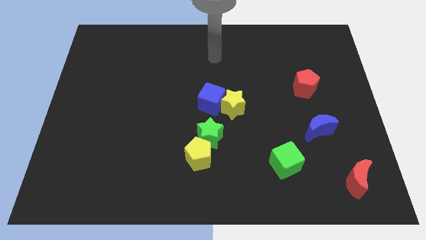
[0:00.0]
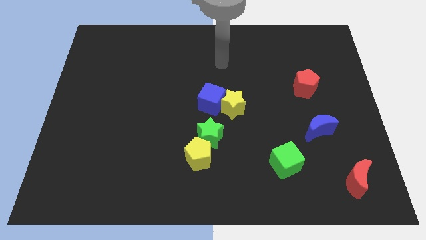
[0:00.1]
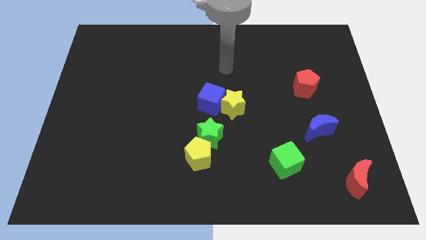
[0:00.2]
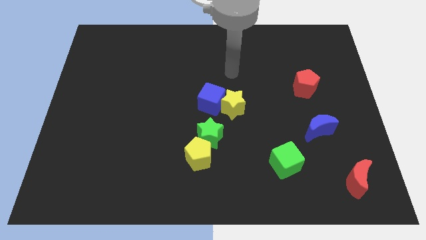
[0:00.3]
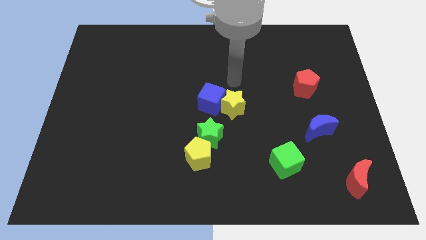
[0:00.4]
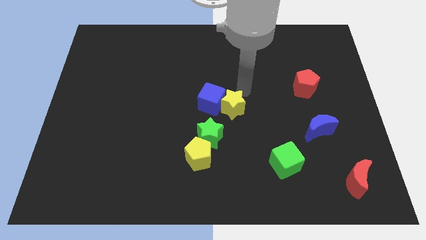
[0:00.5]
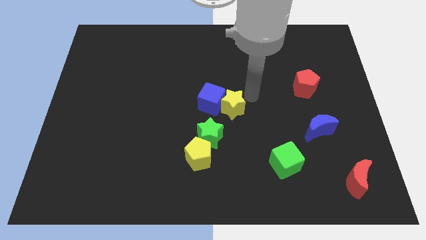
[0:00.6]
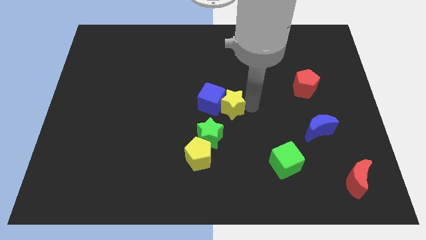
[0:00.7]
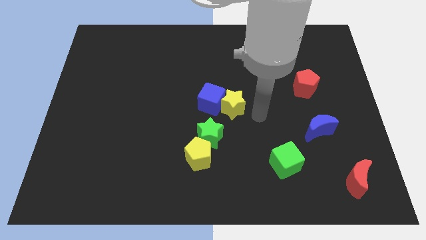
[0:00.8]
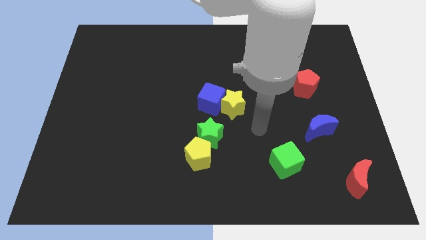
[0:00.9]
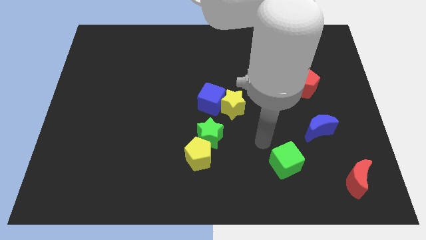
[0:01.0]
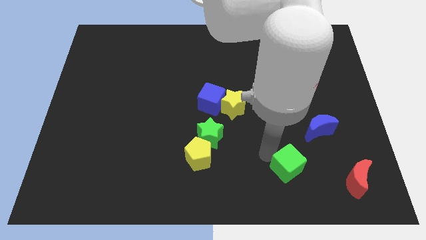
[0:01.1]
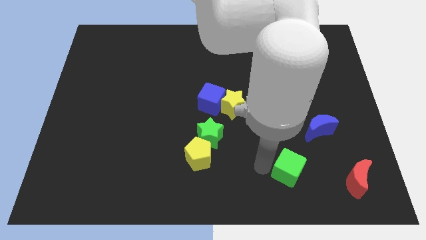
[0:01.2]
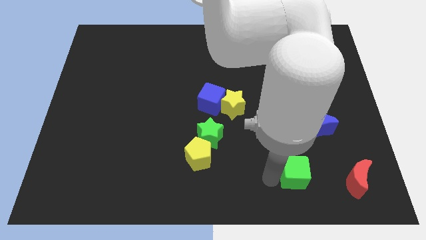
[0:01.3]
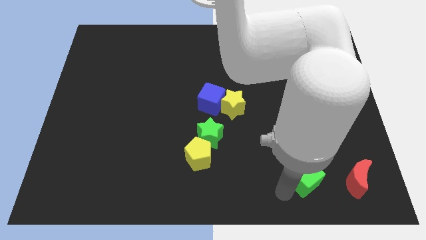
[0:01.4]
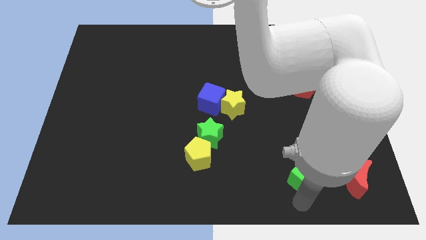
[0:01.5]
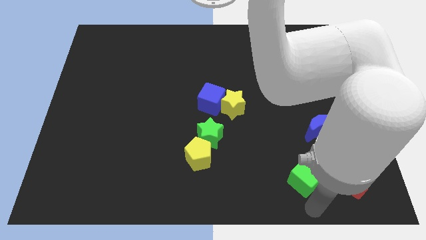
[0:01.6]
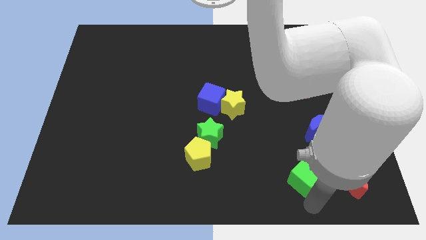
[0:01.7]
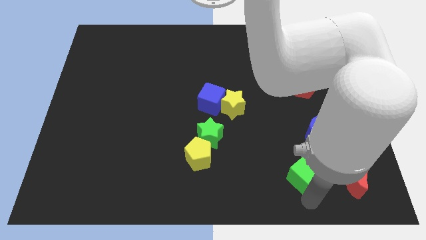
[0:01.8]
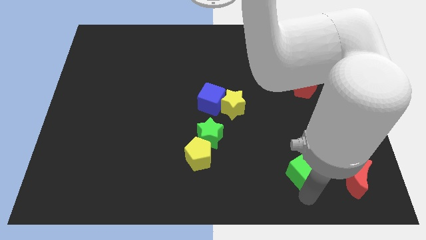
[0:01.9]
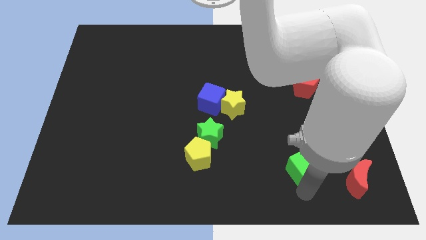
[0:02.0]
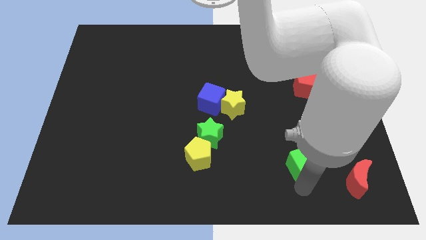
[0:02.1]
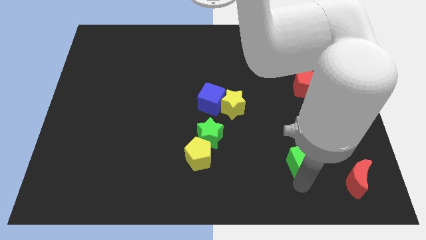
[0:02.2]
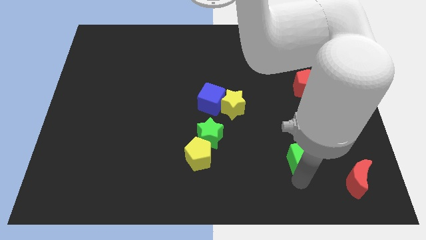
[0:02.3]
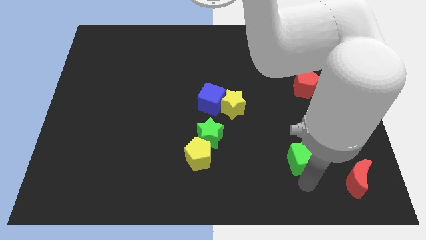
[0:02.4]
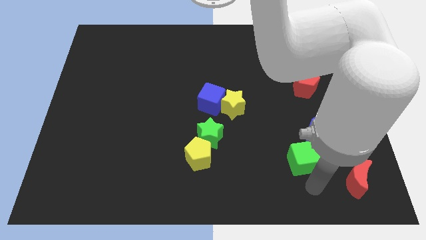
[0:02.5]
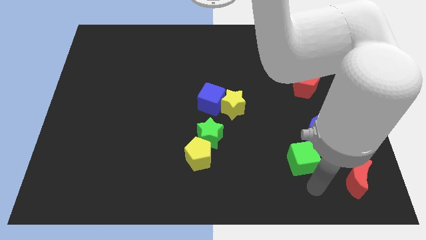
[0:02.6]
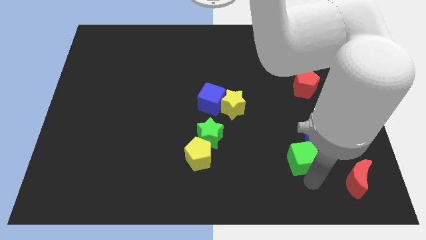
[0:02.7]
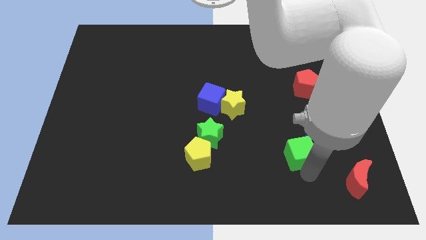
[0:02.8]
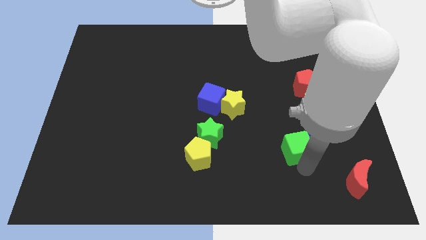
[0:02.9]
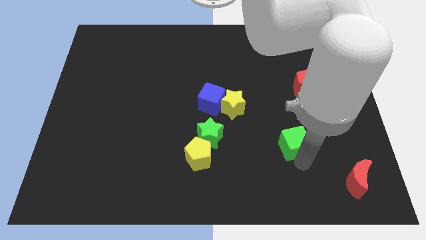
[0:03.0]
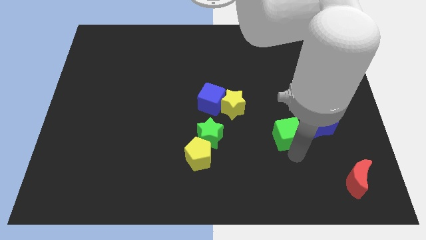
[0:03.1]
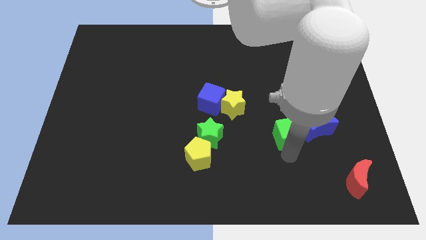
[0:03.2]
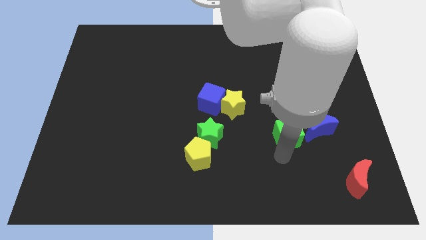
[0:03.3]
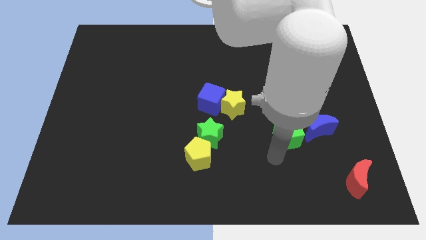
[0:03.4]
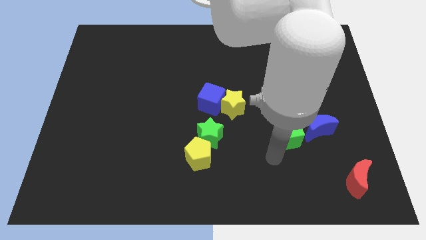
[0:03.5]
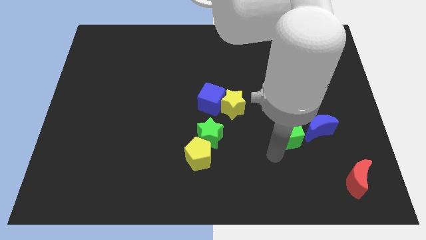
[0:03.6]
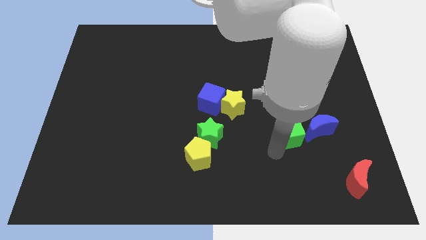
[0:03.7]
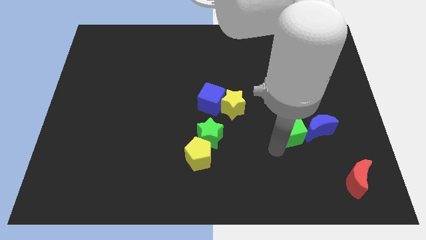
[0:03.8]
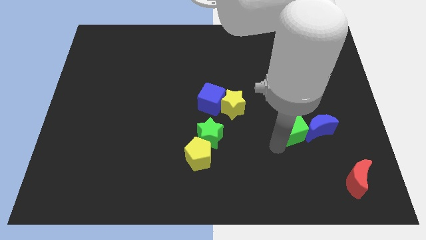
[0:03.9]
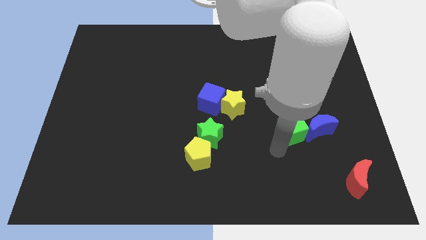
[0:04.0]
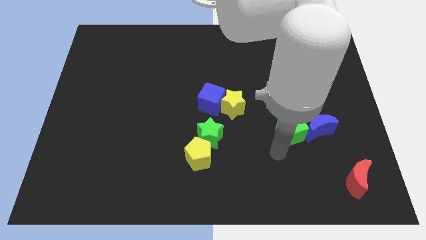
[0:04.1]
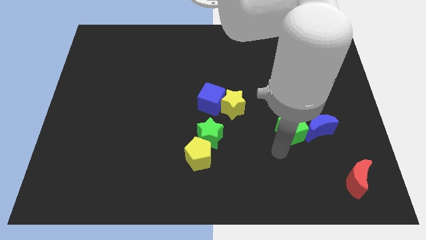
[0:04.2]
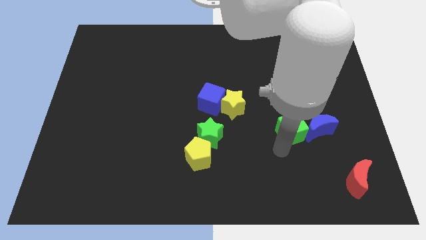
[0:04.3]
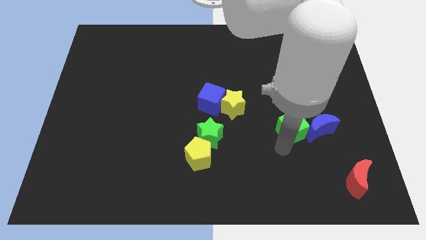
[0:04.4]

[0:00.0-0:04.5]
move the green cube diagonally up and right a little

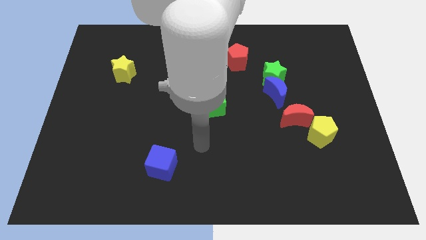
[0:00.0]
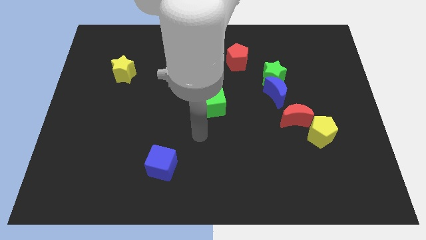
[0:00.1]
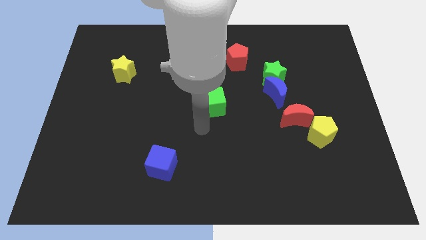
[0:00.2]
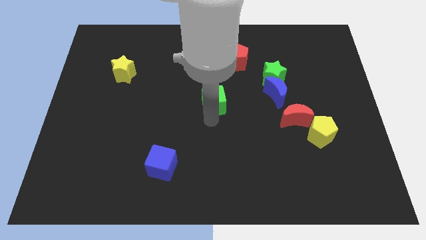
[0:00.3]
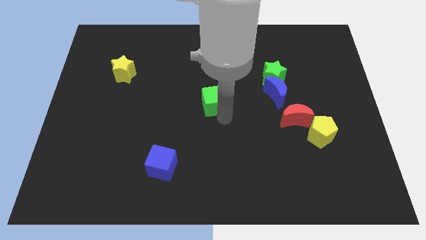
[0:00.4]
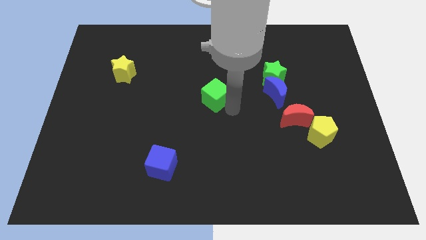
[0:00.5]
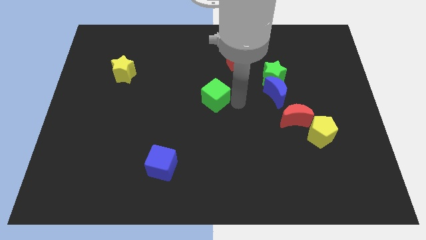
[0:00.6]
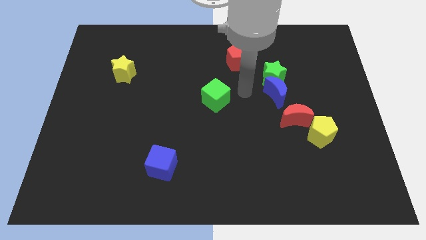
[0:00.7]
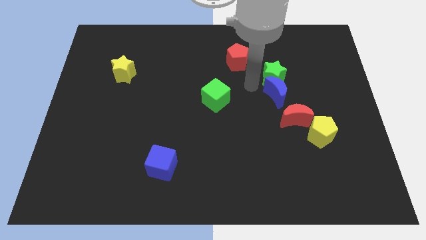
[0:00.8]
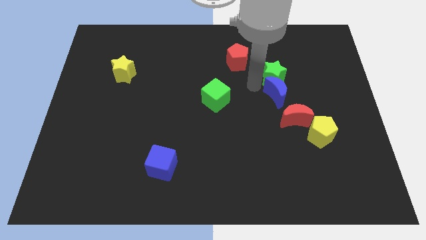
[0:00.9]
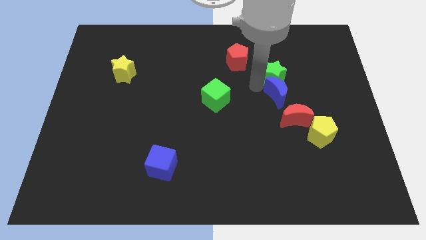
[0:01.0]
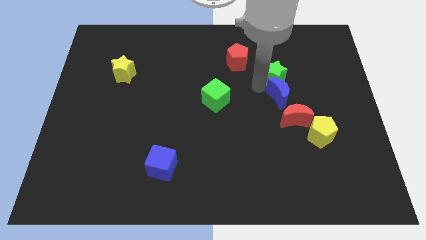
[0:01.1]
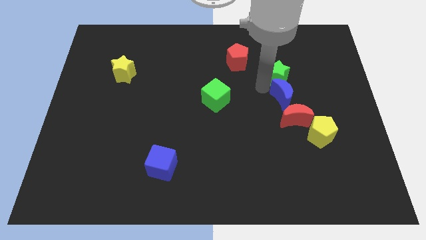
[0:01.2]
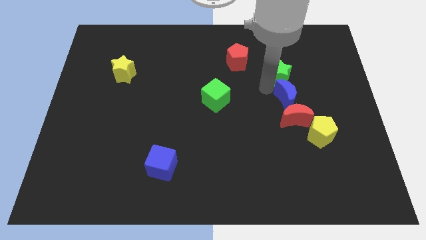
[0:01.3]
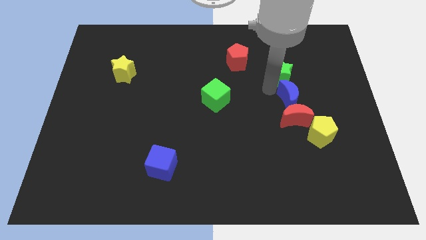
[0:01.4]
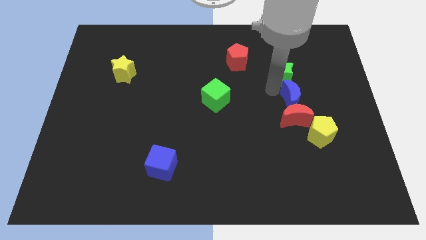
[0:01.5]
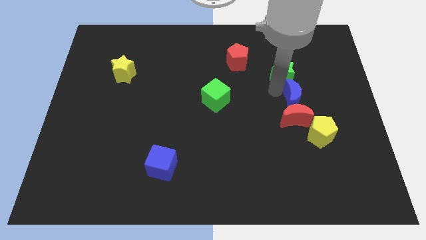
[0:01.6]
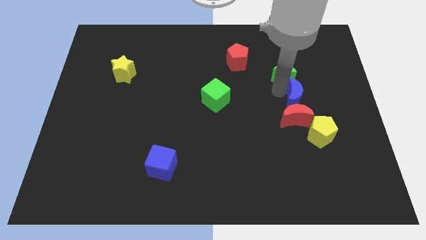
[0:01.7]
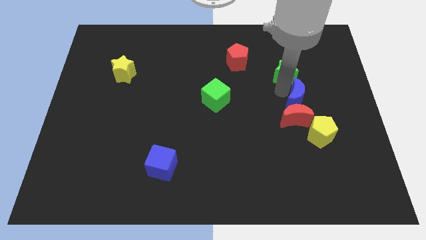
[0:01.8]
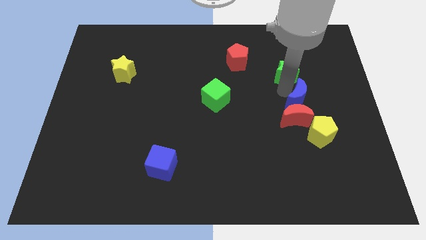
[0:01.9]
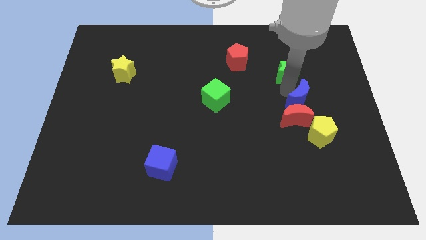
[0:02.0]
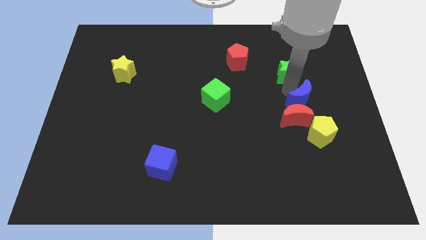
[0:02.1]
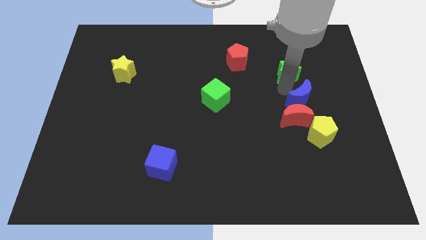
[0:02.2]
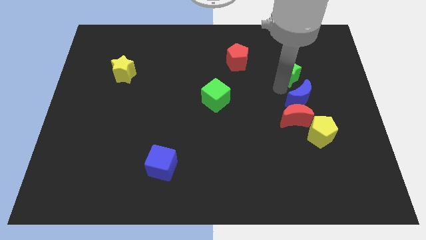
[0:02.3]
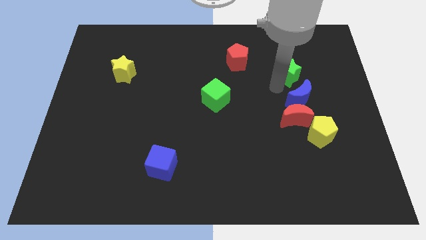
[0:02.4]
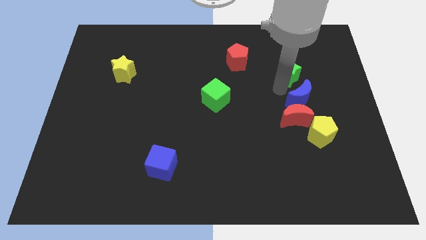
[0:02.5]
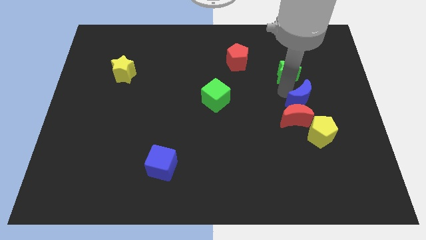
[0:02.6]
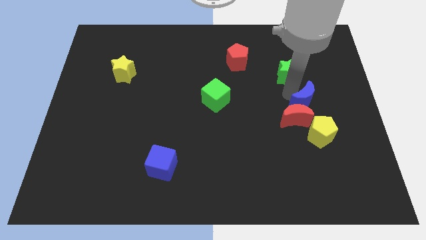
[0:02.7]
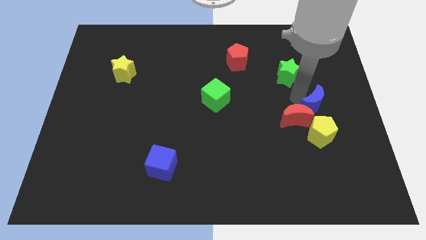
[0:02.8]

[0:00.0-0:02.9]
push the blue moon diagonally down and to the right a bit

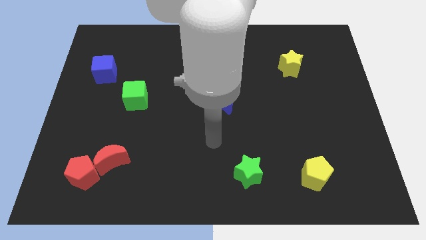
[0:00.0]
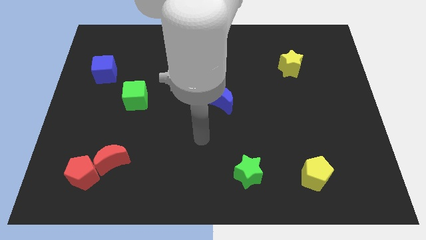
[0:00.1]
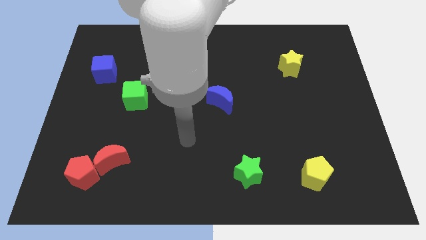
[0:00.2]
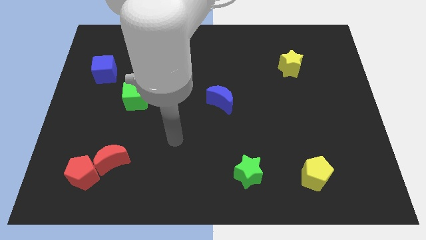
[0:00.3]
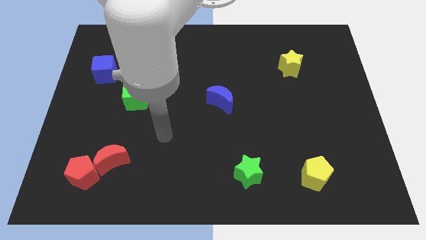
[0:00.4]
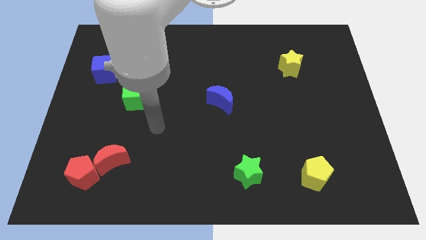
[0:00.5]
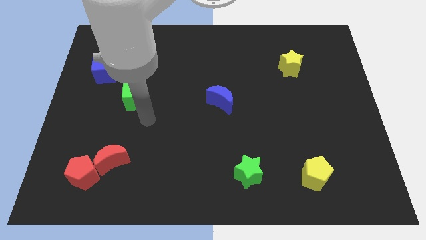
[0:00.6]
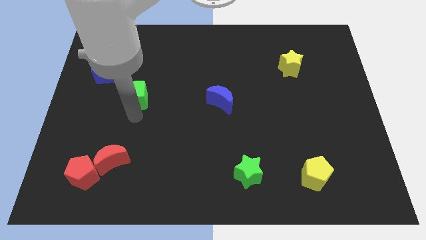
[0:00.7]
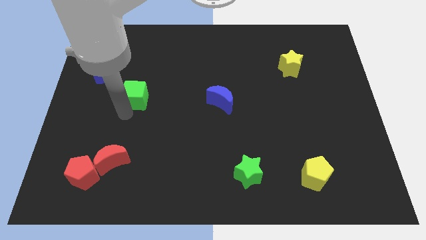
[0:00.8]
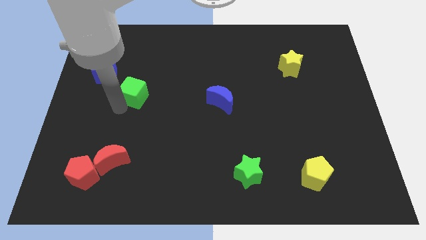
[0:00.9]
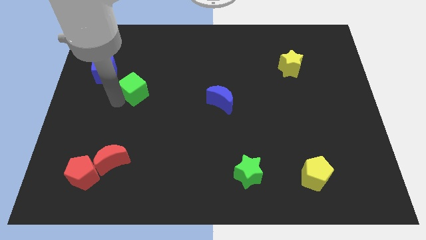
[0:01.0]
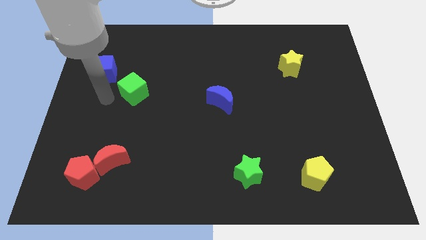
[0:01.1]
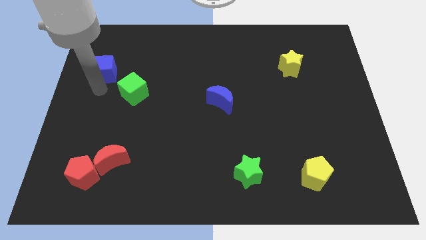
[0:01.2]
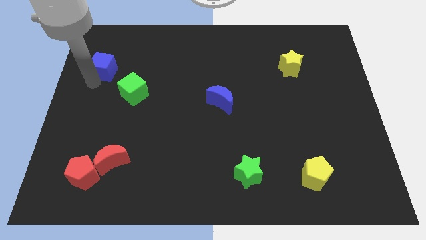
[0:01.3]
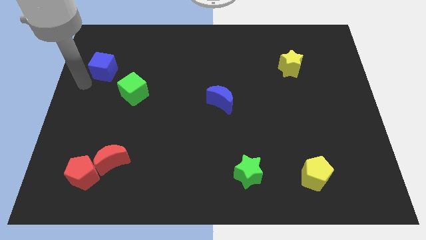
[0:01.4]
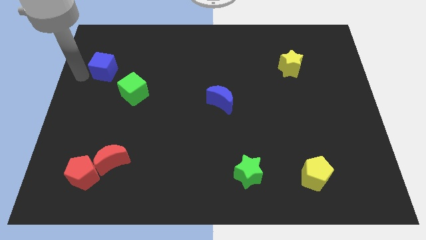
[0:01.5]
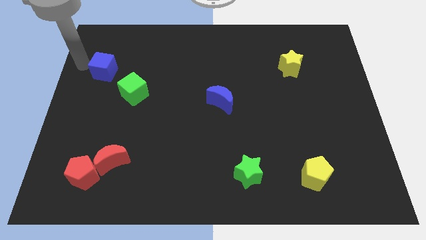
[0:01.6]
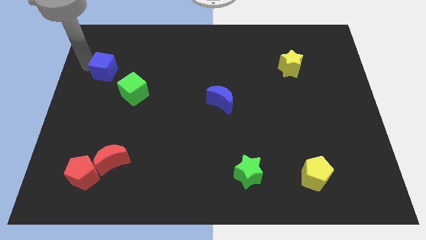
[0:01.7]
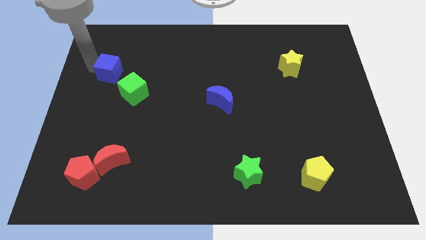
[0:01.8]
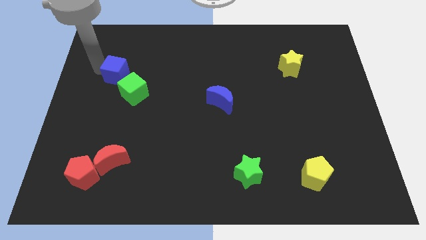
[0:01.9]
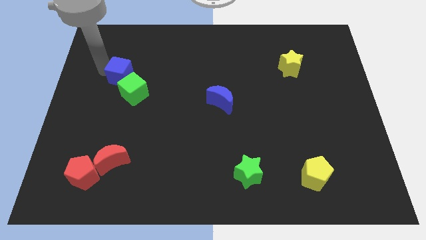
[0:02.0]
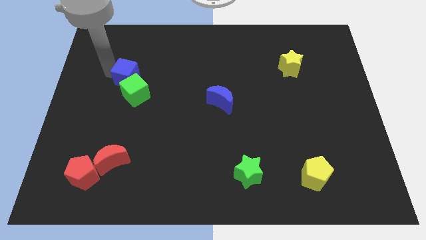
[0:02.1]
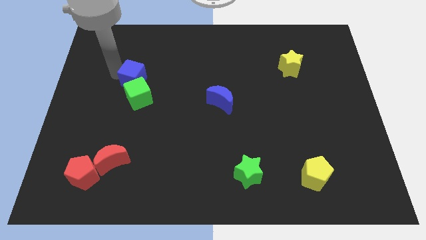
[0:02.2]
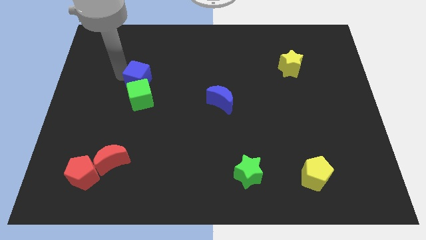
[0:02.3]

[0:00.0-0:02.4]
slightly push the blue cube downwards and right diagonally
